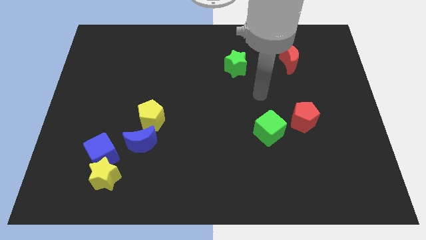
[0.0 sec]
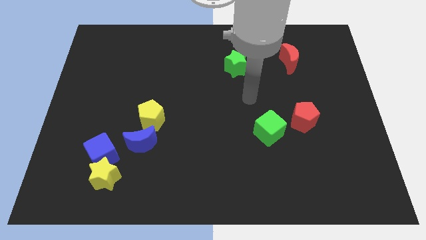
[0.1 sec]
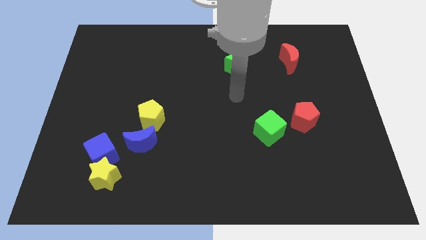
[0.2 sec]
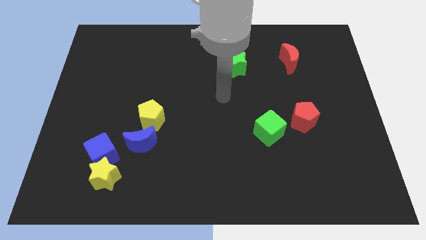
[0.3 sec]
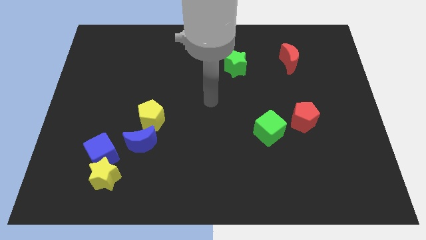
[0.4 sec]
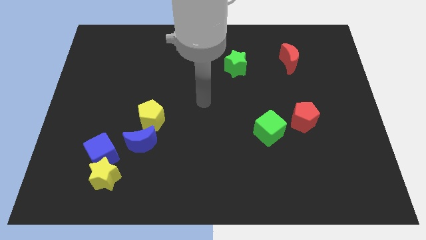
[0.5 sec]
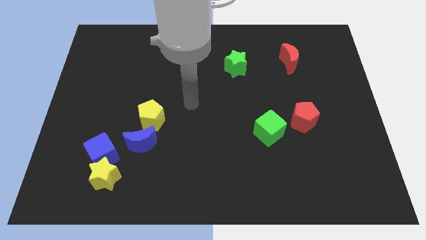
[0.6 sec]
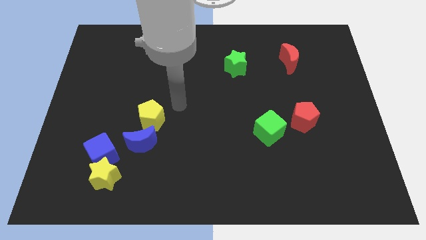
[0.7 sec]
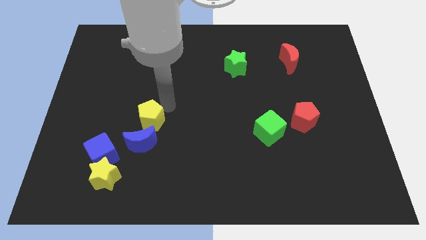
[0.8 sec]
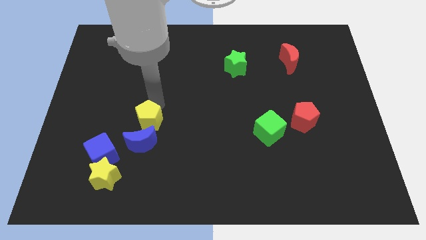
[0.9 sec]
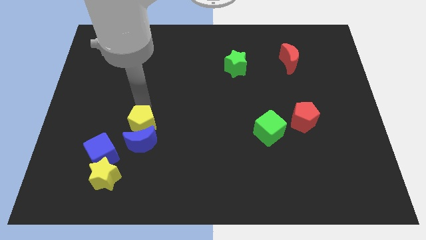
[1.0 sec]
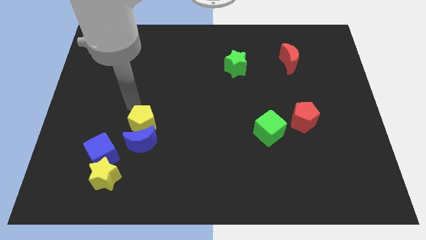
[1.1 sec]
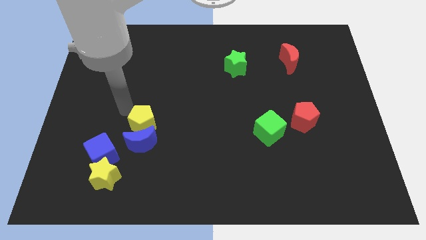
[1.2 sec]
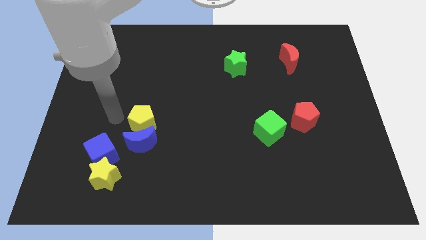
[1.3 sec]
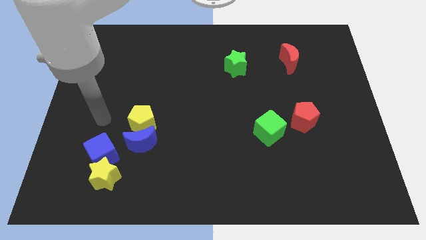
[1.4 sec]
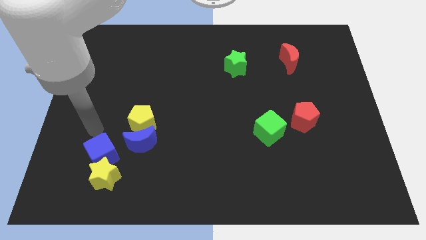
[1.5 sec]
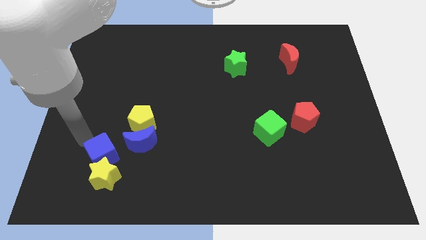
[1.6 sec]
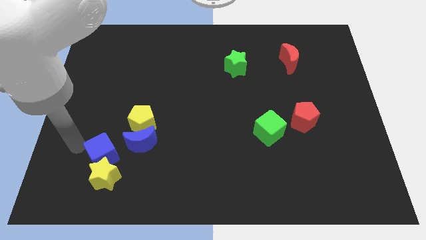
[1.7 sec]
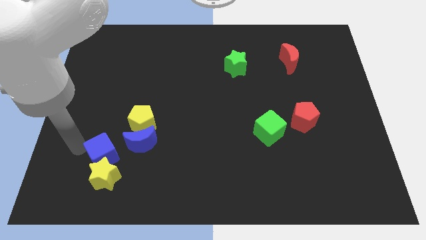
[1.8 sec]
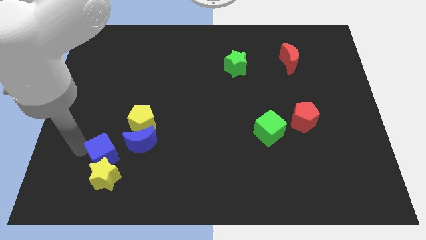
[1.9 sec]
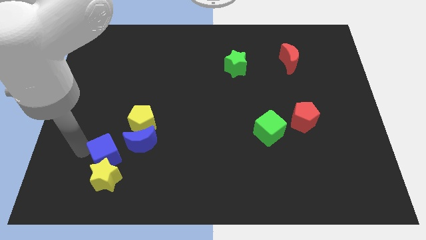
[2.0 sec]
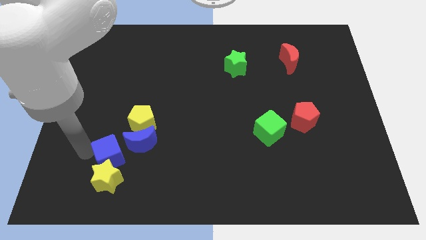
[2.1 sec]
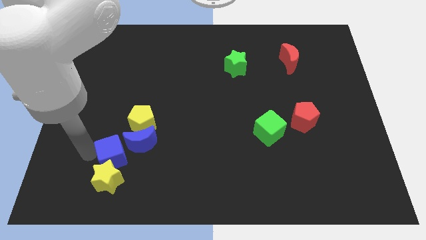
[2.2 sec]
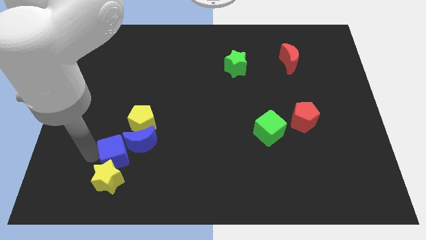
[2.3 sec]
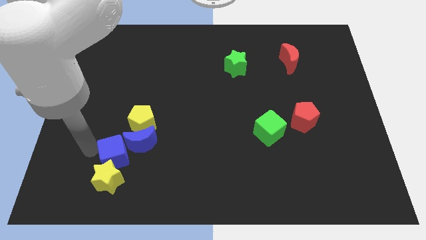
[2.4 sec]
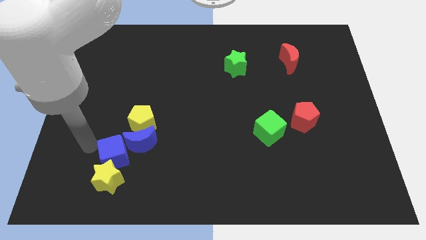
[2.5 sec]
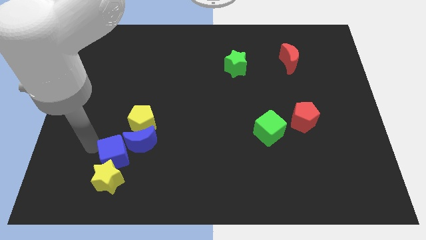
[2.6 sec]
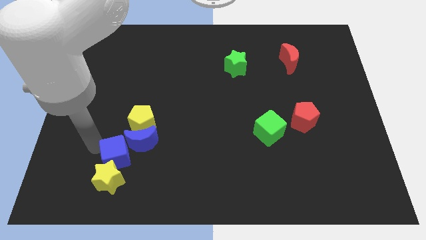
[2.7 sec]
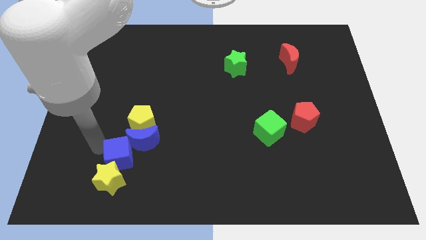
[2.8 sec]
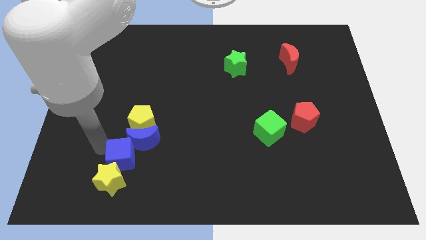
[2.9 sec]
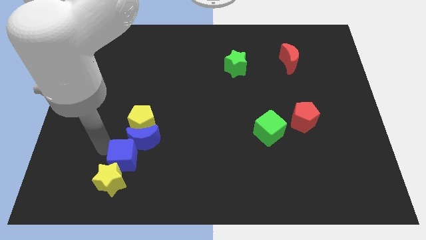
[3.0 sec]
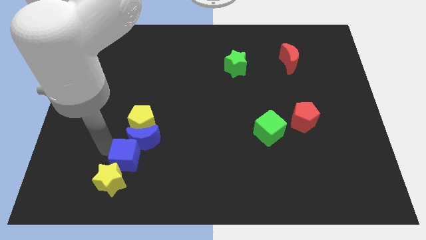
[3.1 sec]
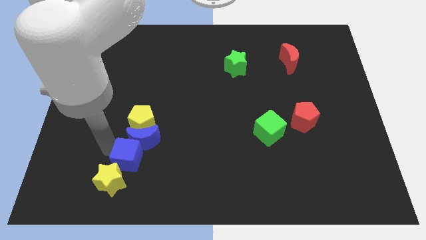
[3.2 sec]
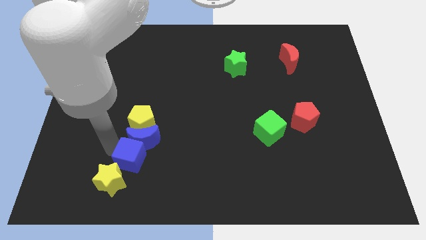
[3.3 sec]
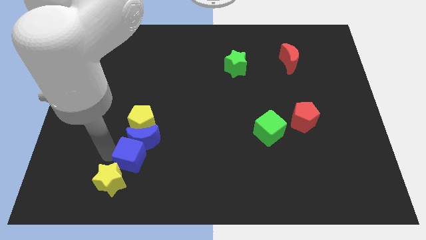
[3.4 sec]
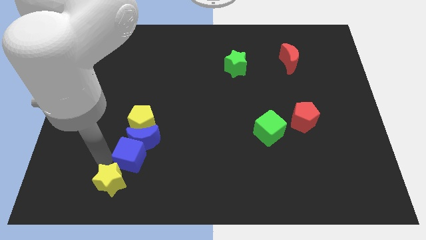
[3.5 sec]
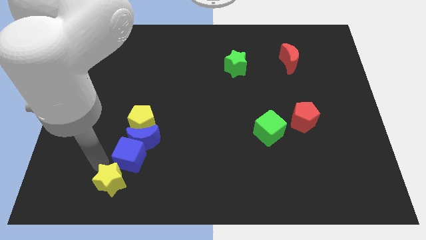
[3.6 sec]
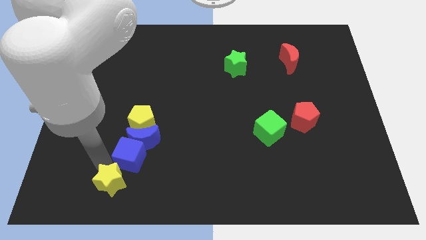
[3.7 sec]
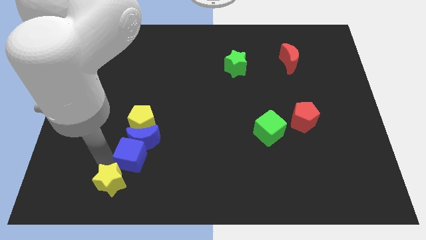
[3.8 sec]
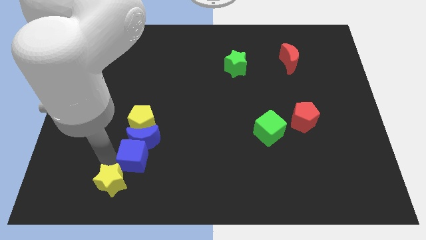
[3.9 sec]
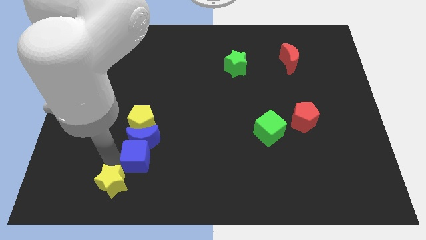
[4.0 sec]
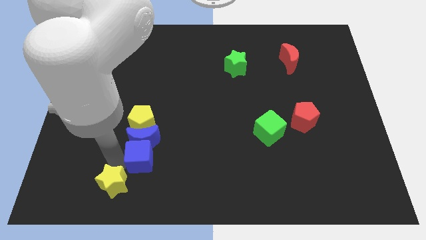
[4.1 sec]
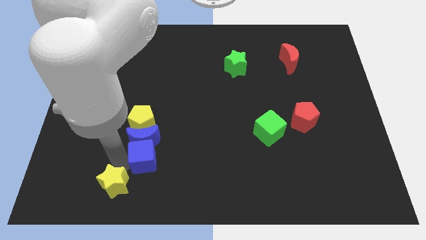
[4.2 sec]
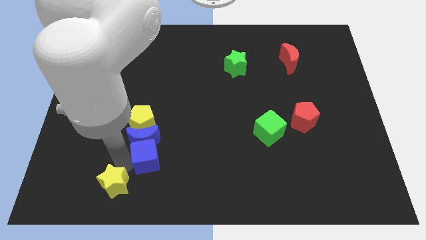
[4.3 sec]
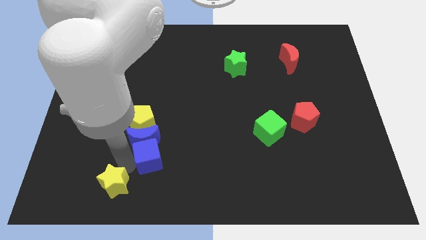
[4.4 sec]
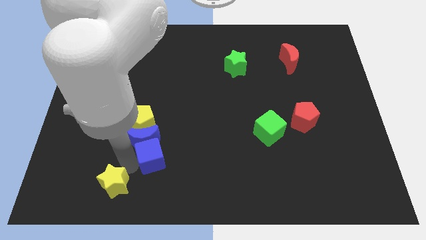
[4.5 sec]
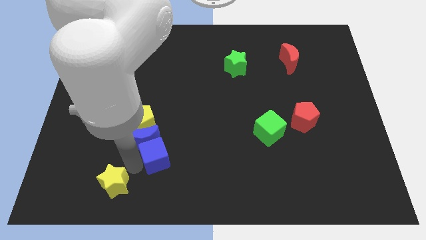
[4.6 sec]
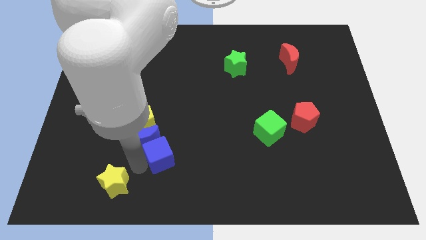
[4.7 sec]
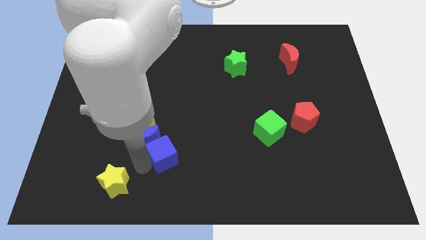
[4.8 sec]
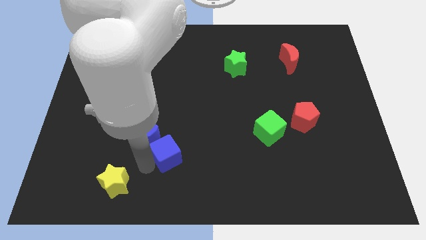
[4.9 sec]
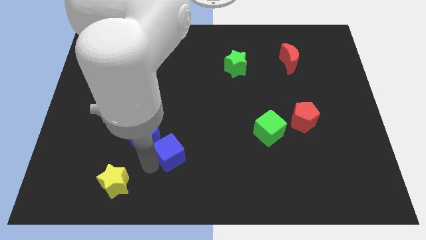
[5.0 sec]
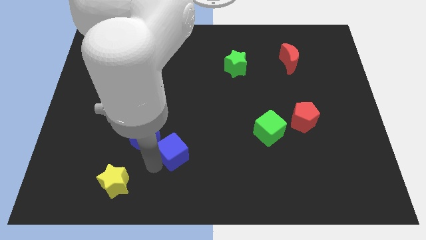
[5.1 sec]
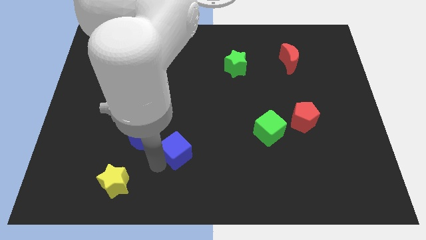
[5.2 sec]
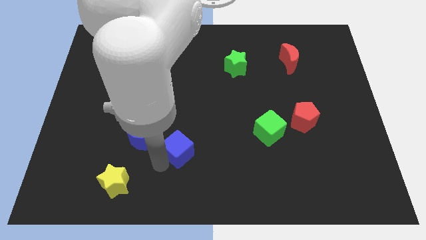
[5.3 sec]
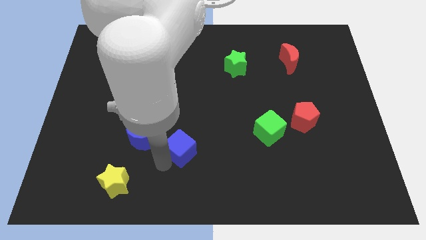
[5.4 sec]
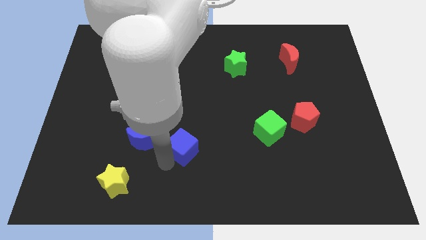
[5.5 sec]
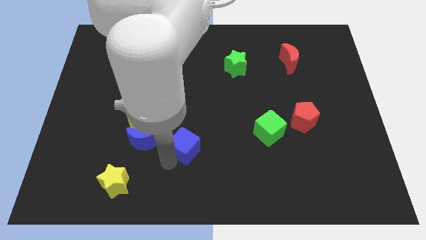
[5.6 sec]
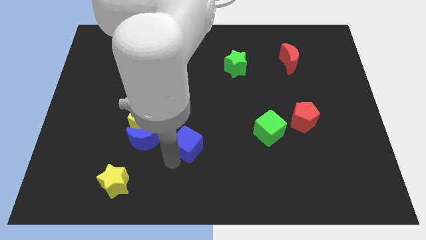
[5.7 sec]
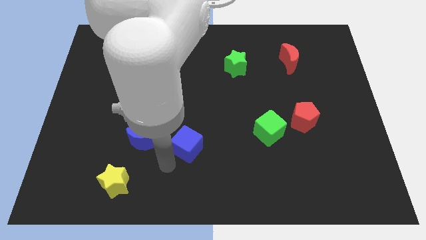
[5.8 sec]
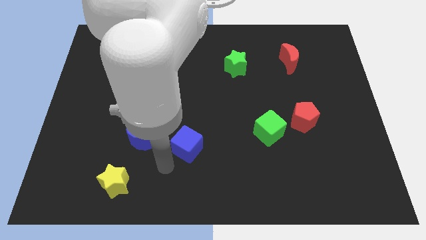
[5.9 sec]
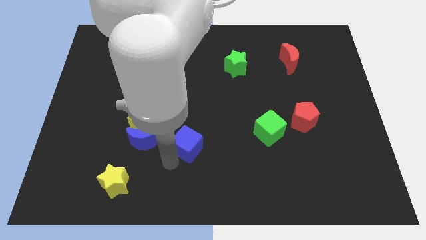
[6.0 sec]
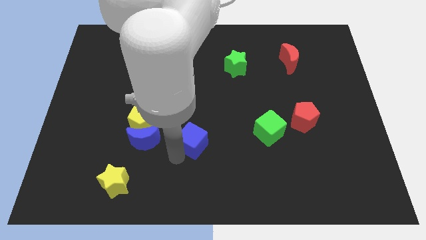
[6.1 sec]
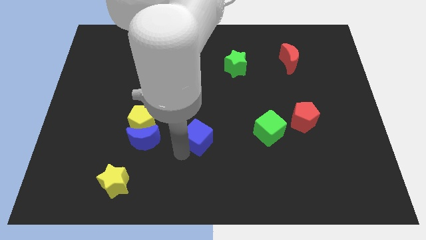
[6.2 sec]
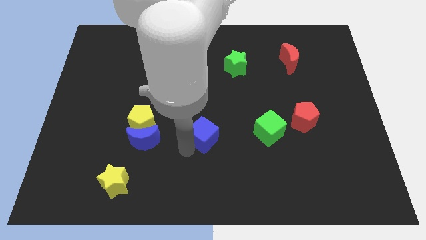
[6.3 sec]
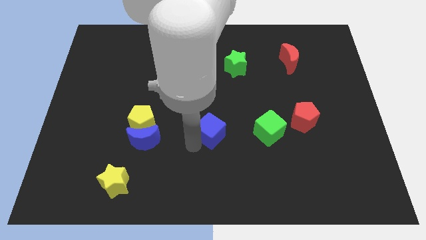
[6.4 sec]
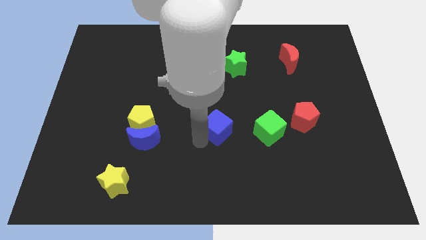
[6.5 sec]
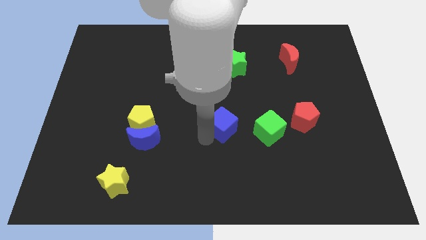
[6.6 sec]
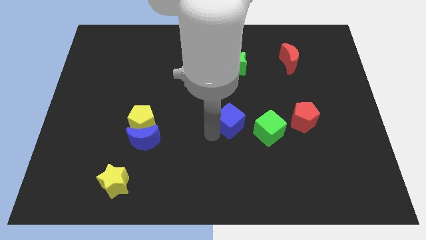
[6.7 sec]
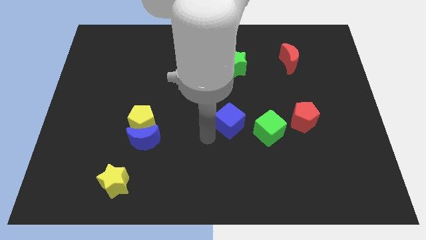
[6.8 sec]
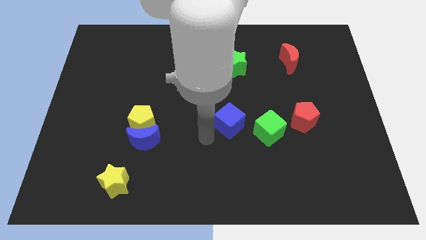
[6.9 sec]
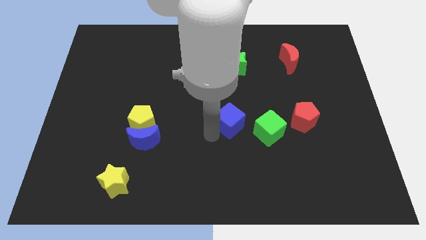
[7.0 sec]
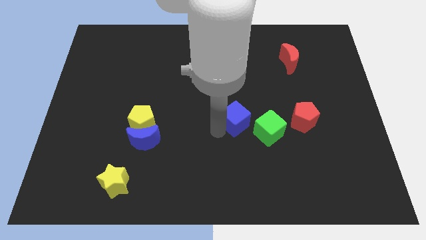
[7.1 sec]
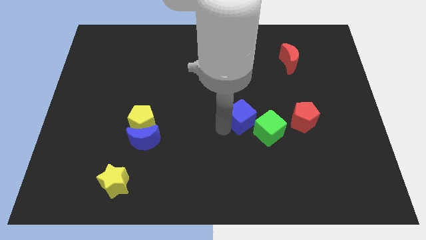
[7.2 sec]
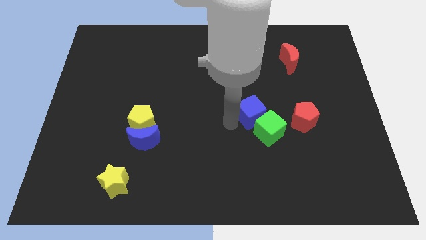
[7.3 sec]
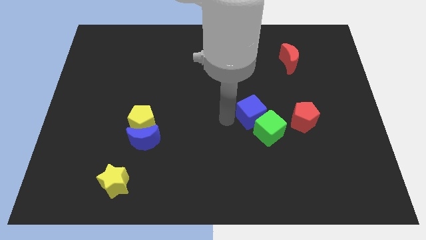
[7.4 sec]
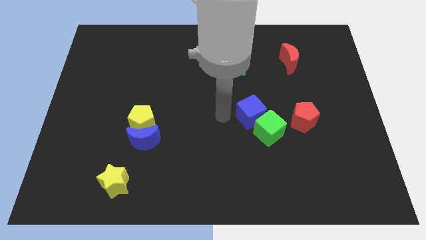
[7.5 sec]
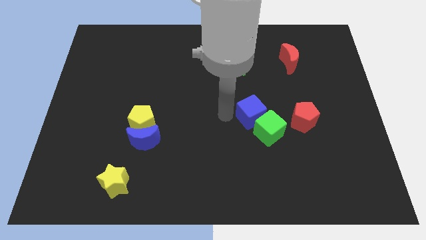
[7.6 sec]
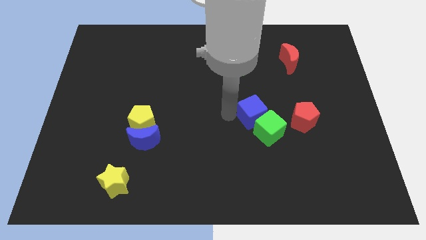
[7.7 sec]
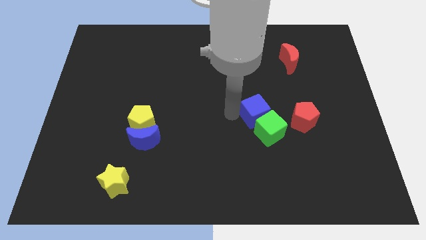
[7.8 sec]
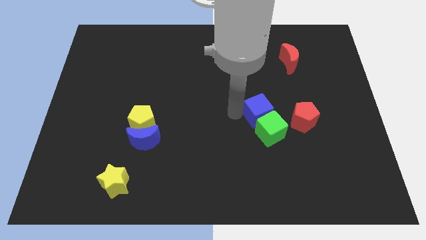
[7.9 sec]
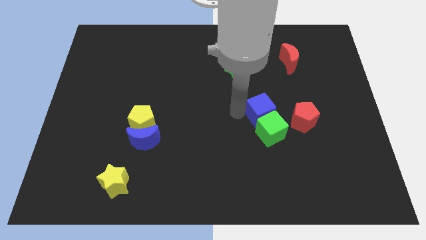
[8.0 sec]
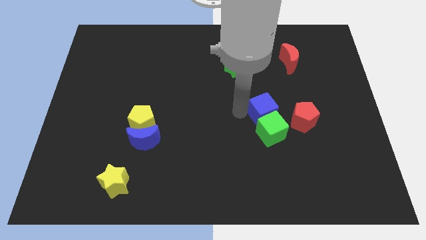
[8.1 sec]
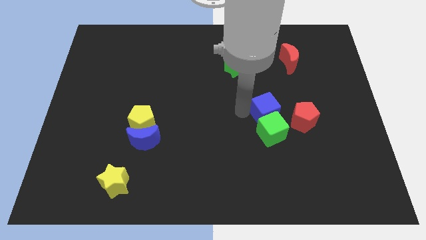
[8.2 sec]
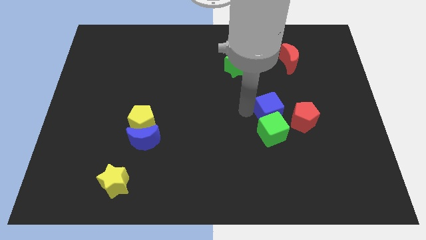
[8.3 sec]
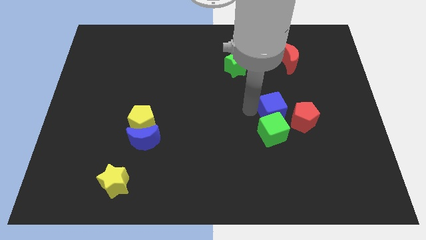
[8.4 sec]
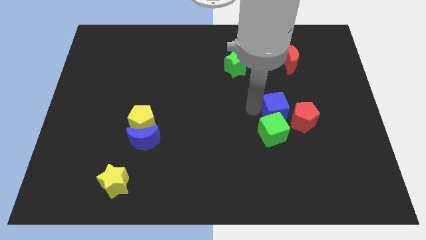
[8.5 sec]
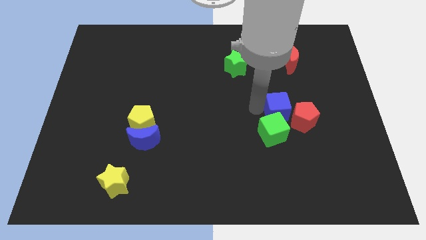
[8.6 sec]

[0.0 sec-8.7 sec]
move the blue cube towards the red pentagon
